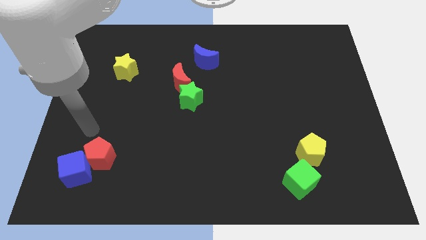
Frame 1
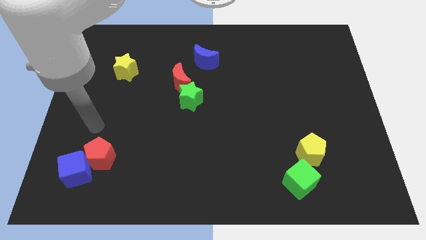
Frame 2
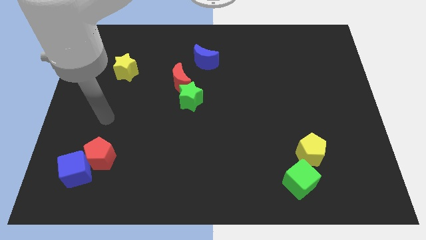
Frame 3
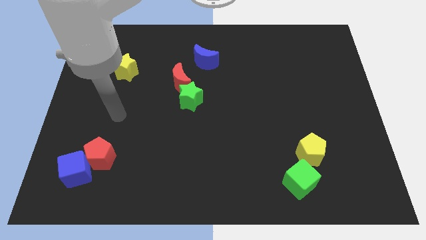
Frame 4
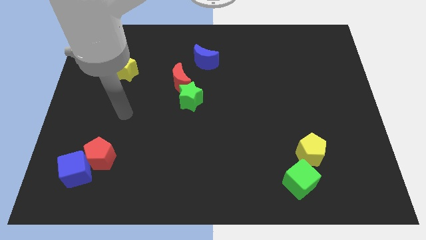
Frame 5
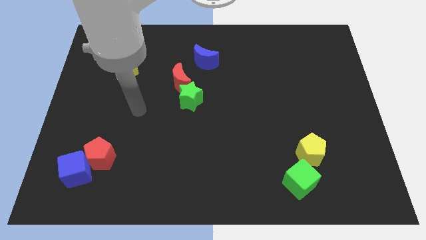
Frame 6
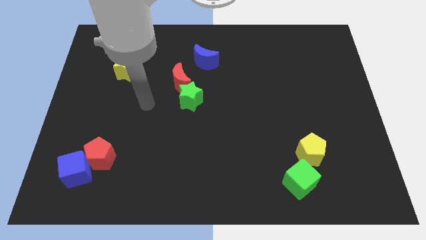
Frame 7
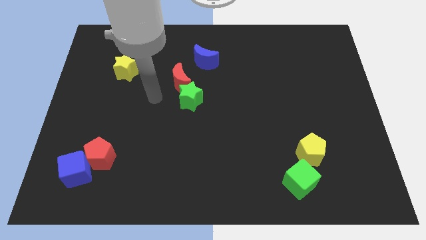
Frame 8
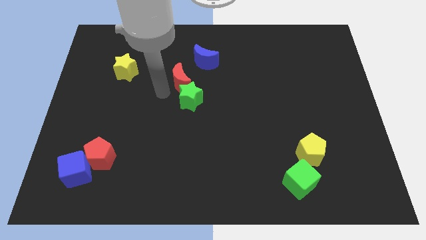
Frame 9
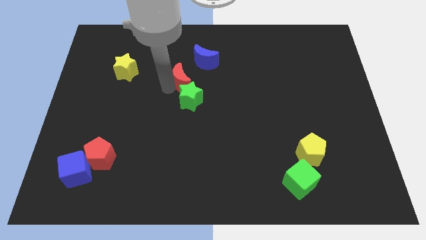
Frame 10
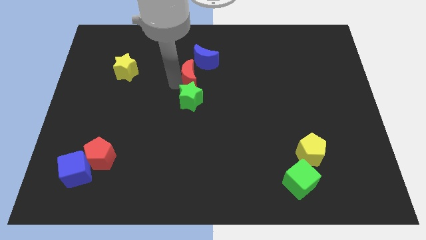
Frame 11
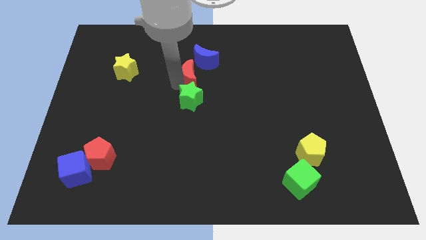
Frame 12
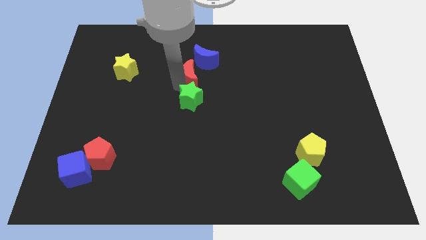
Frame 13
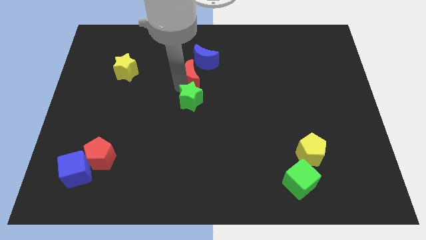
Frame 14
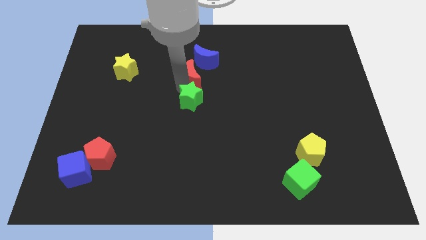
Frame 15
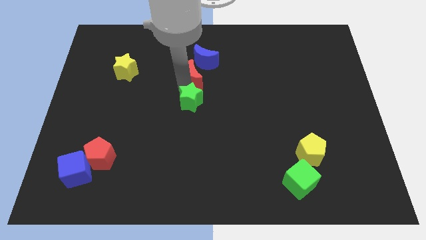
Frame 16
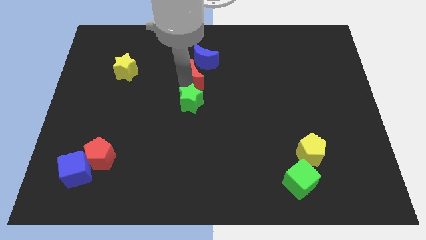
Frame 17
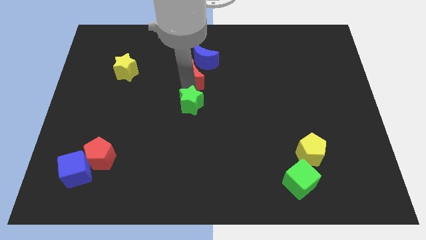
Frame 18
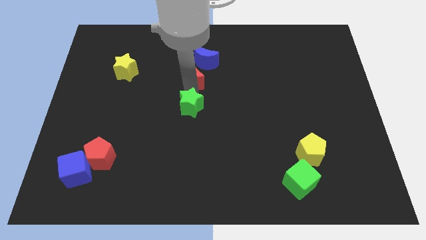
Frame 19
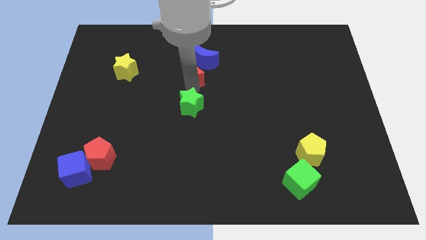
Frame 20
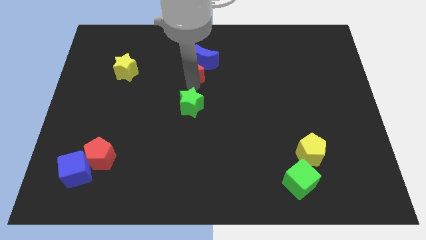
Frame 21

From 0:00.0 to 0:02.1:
separate the green star from the red moon

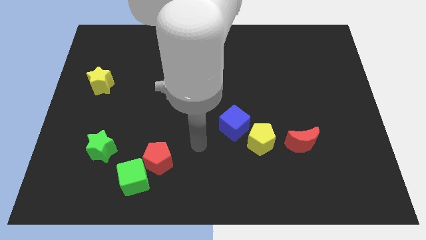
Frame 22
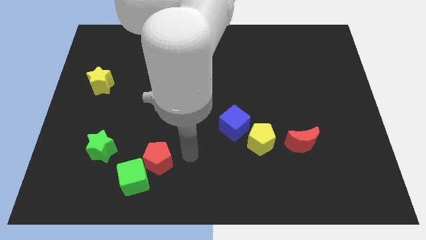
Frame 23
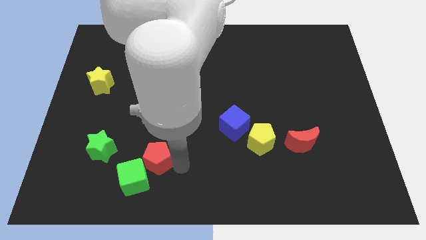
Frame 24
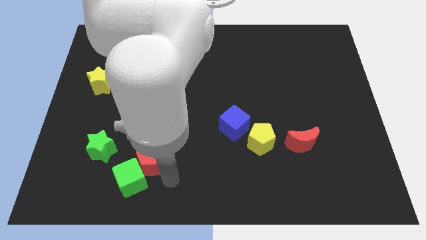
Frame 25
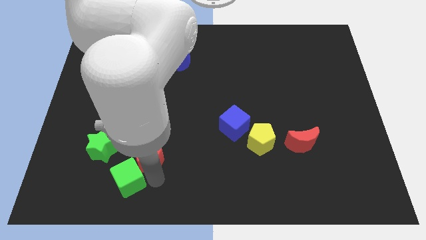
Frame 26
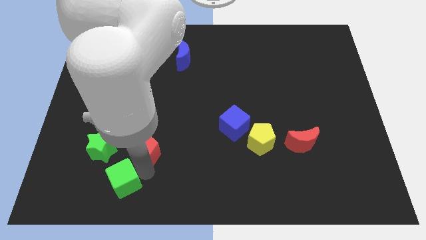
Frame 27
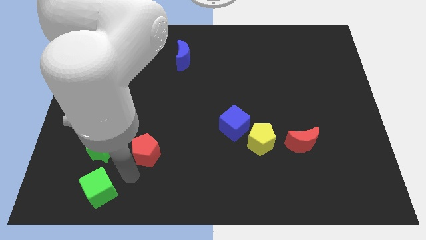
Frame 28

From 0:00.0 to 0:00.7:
move the red pentagon away from the green cube

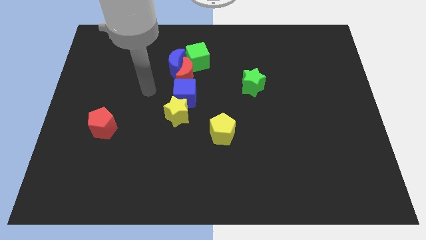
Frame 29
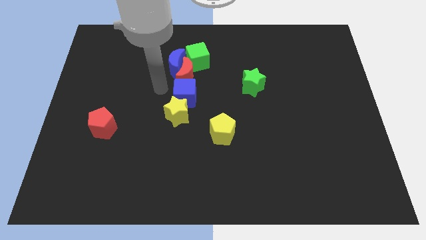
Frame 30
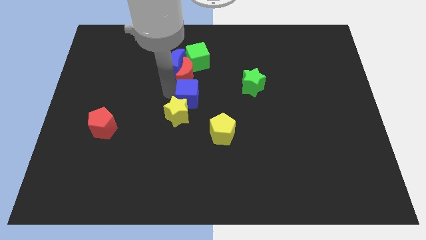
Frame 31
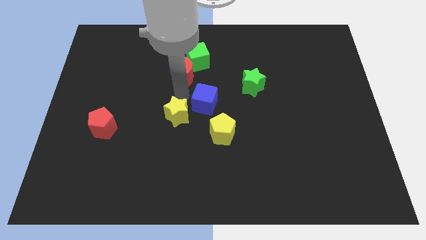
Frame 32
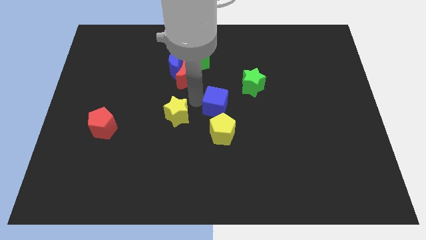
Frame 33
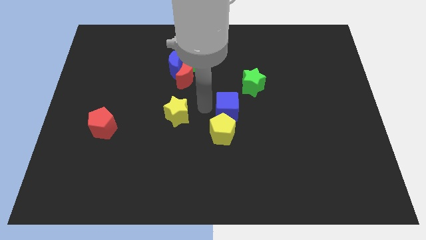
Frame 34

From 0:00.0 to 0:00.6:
move the yellow star away from the blue cube

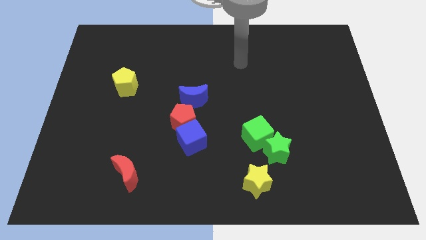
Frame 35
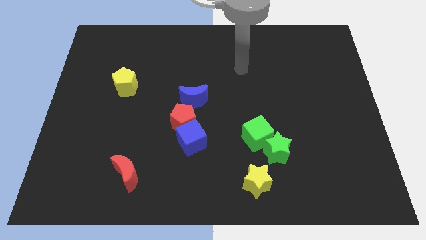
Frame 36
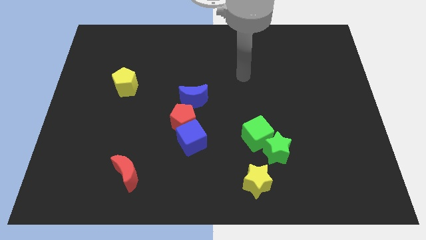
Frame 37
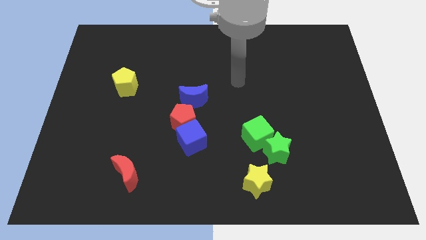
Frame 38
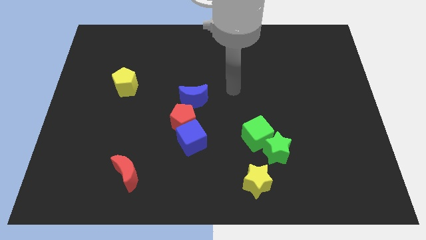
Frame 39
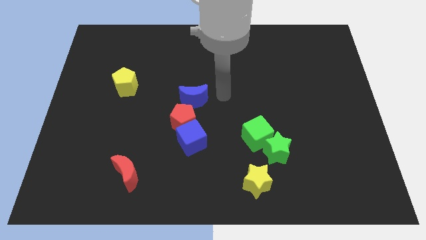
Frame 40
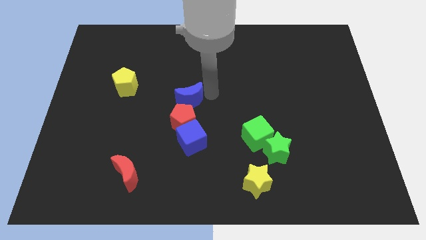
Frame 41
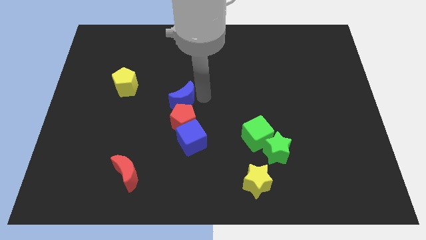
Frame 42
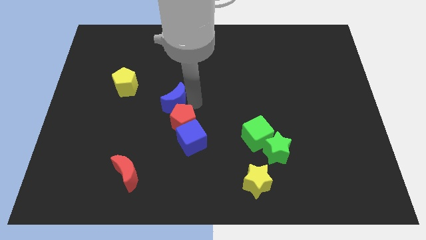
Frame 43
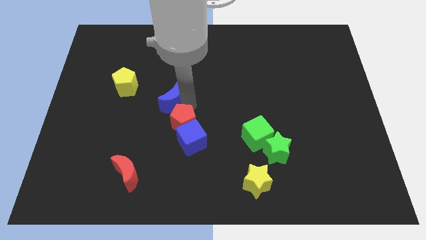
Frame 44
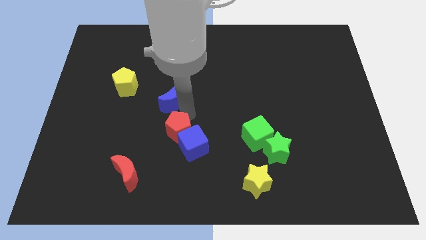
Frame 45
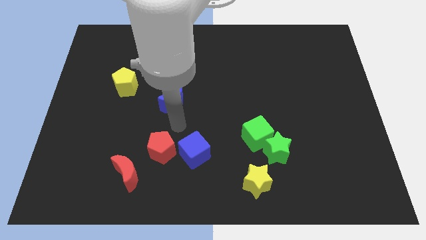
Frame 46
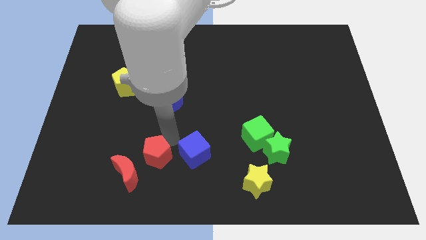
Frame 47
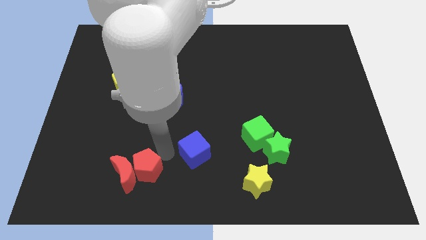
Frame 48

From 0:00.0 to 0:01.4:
pull the blue cube apart from the red pentagon

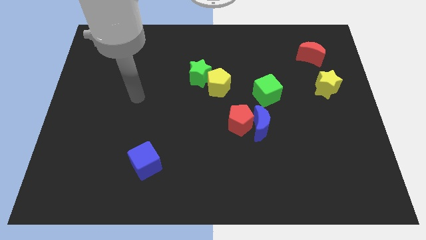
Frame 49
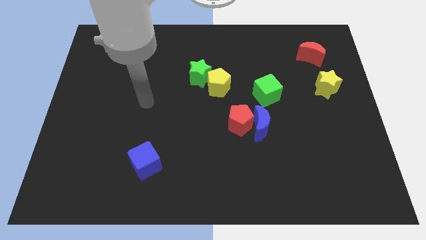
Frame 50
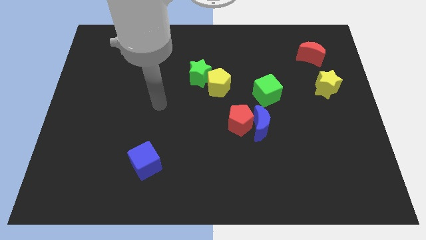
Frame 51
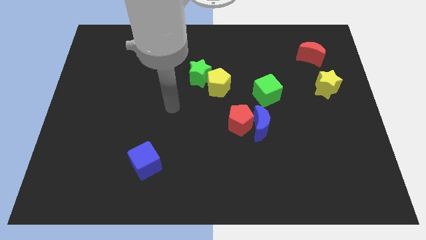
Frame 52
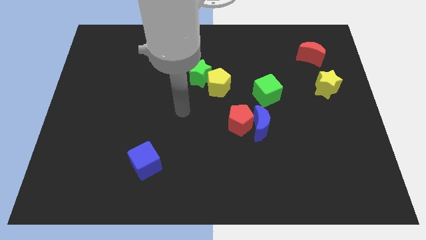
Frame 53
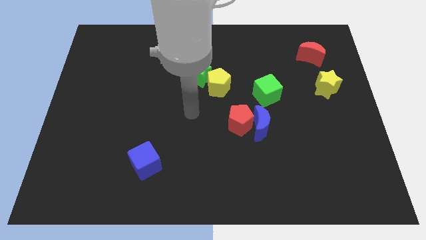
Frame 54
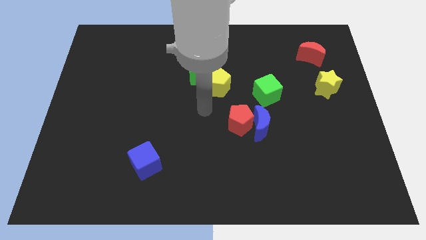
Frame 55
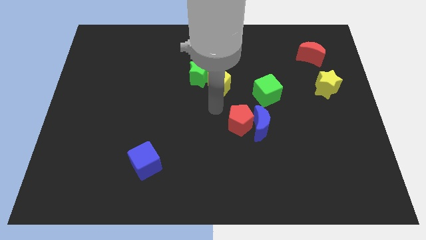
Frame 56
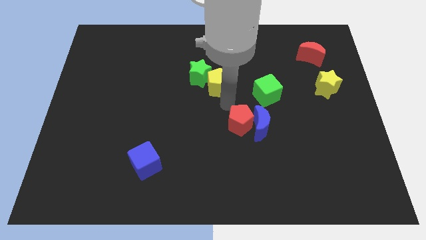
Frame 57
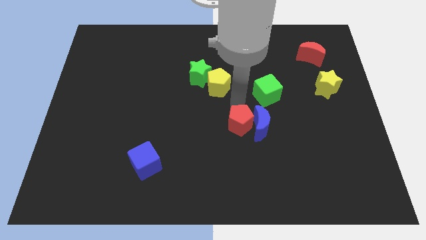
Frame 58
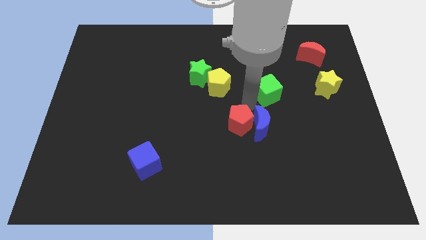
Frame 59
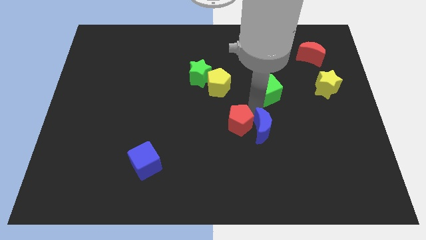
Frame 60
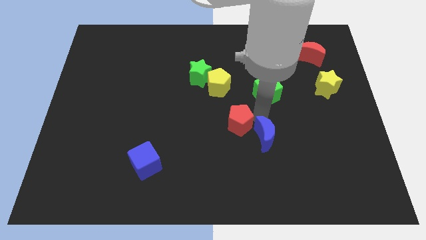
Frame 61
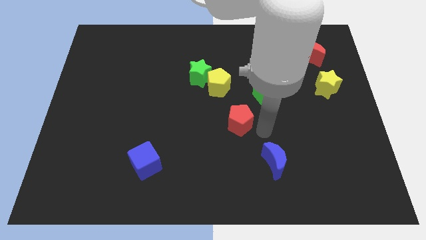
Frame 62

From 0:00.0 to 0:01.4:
pull the red pentagon apart from the blue moon

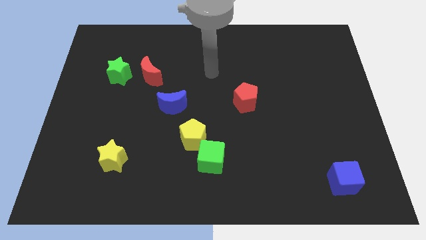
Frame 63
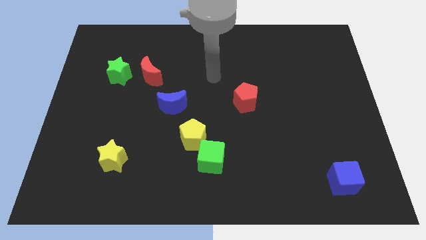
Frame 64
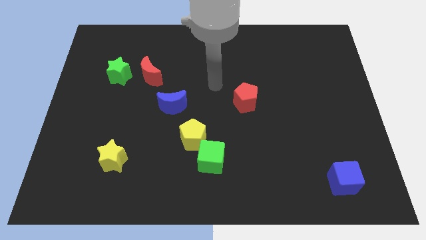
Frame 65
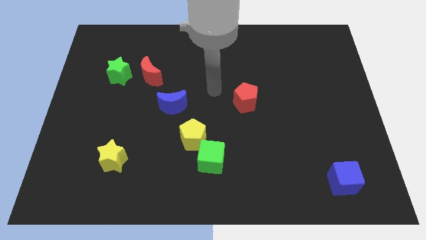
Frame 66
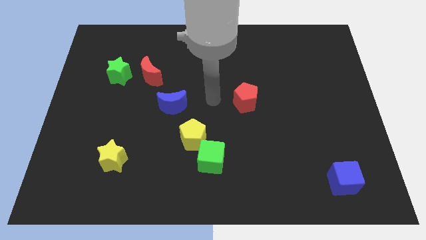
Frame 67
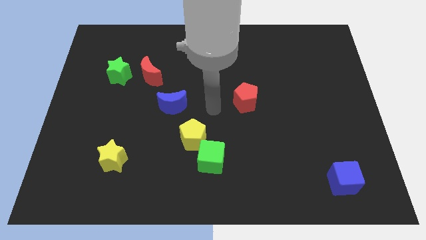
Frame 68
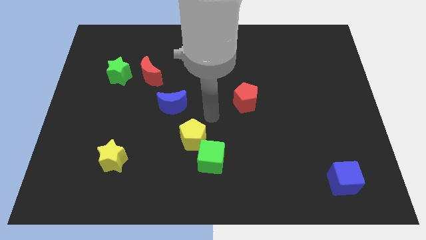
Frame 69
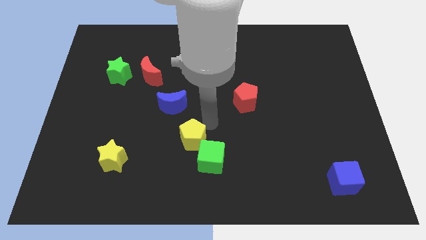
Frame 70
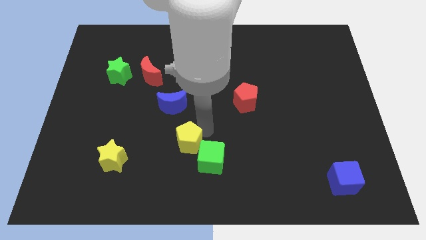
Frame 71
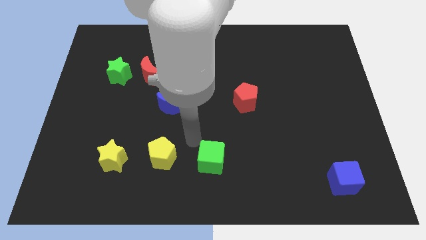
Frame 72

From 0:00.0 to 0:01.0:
move the green cube away from the yellow pentagon

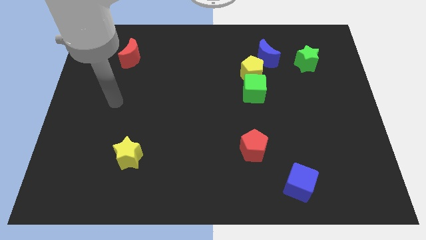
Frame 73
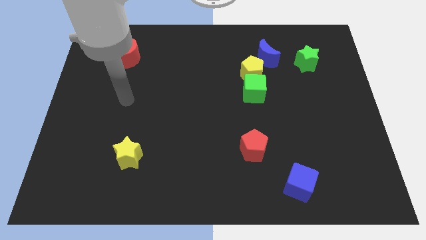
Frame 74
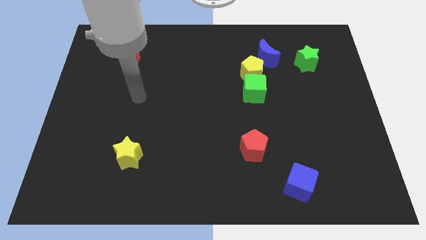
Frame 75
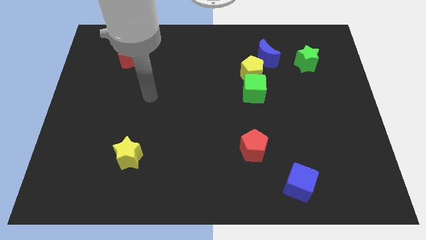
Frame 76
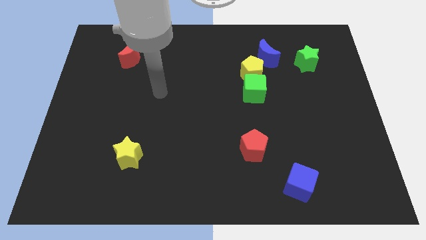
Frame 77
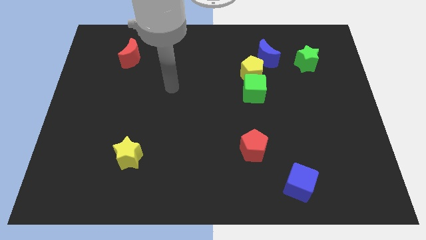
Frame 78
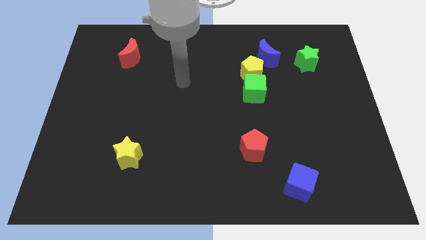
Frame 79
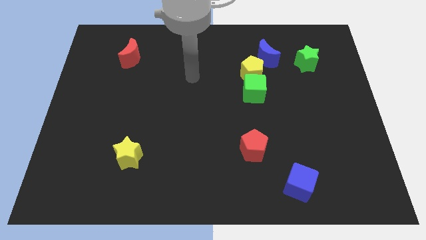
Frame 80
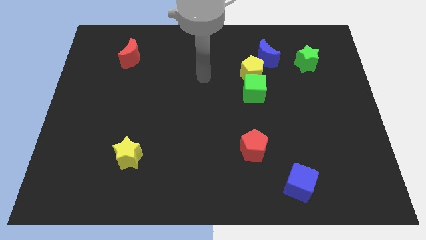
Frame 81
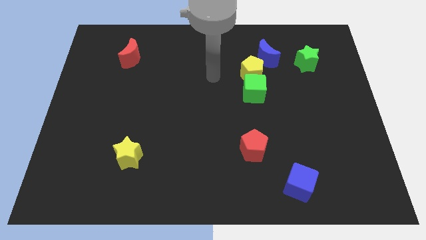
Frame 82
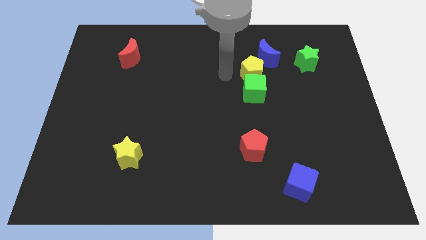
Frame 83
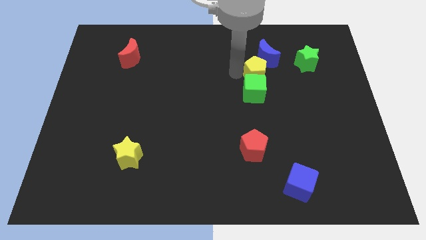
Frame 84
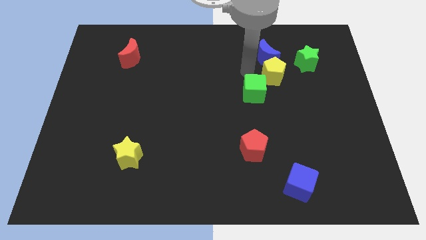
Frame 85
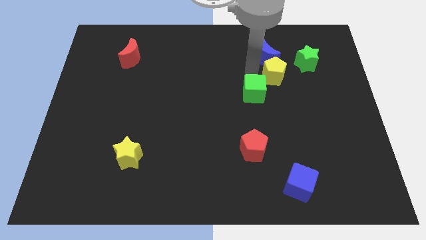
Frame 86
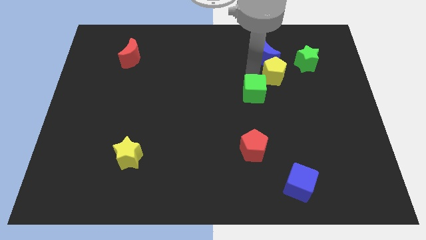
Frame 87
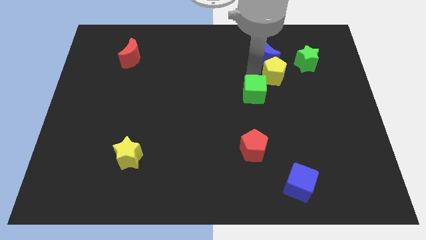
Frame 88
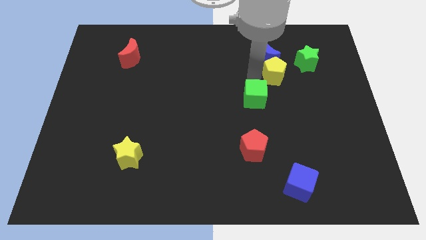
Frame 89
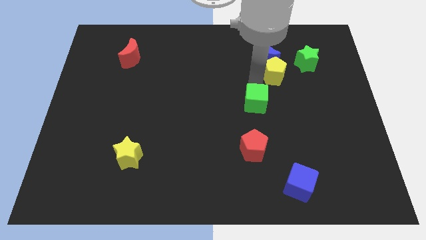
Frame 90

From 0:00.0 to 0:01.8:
pull the green cube apart from the yellow pentagon

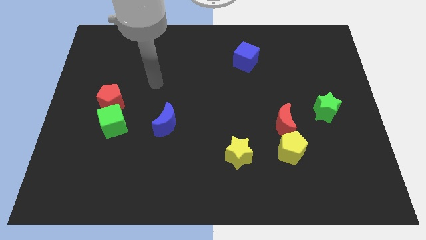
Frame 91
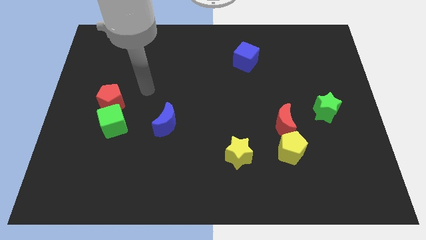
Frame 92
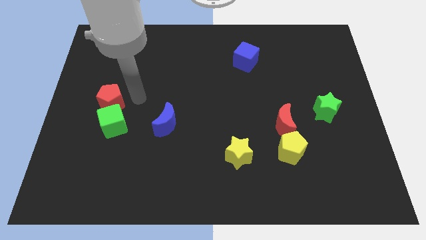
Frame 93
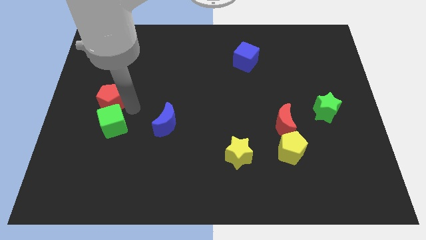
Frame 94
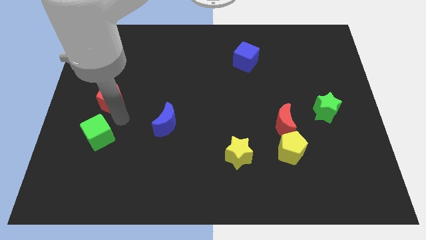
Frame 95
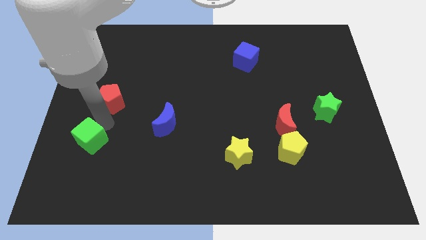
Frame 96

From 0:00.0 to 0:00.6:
separate the red pentagon from the green cube
